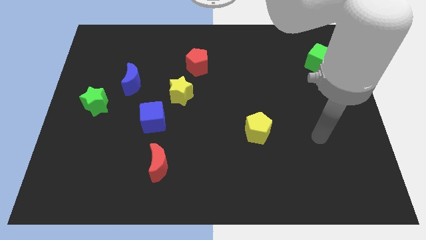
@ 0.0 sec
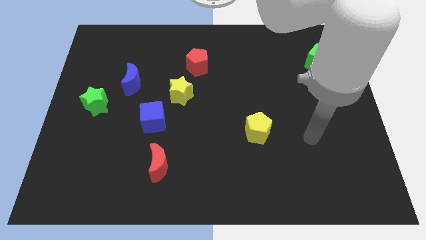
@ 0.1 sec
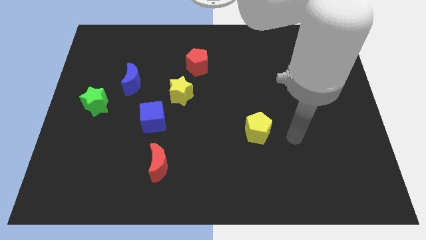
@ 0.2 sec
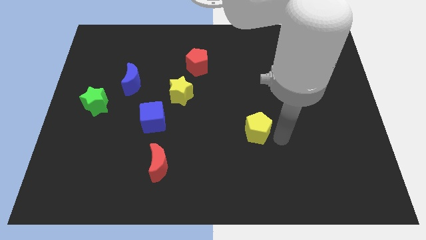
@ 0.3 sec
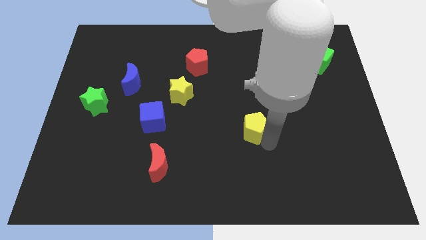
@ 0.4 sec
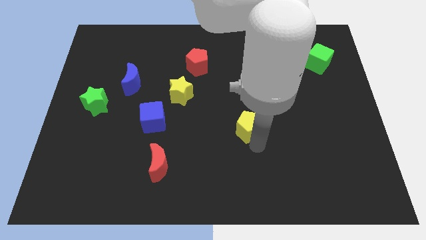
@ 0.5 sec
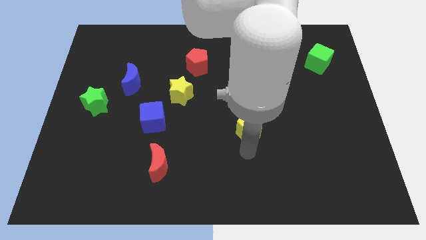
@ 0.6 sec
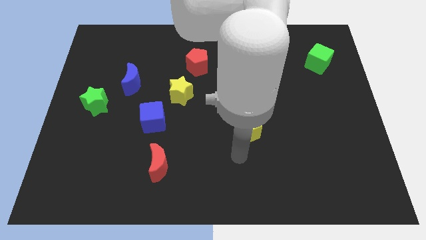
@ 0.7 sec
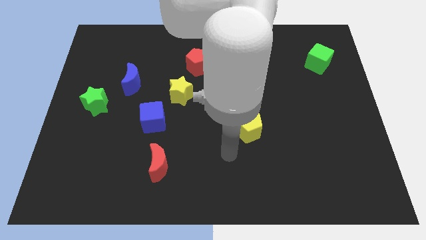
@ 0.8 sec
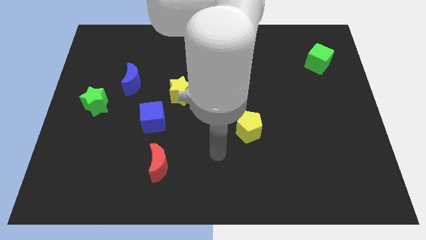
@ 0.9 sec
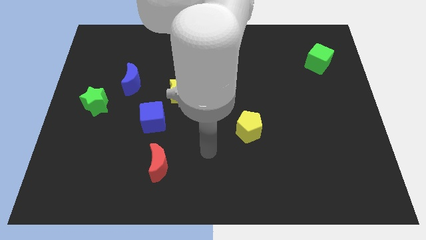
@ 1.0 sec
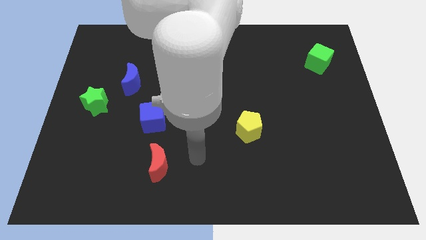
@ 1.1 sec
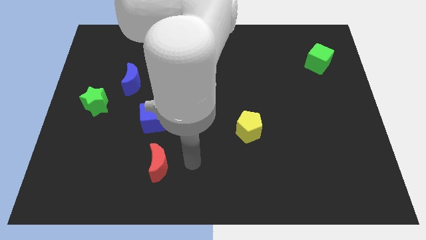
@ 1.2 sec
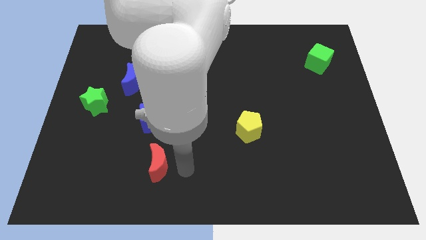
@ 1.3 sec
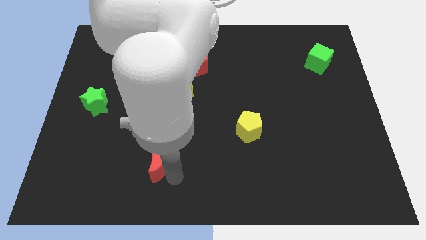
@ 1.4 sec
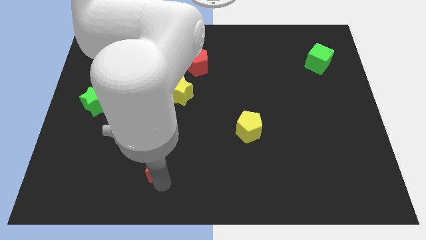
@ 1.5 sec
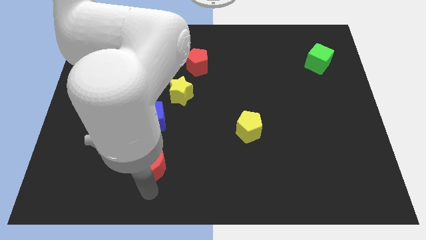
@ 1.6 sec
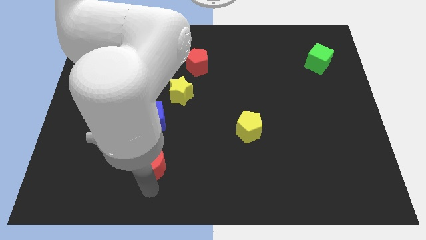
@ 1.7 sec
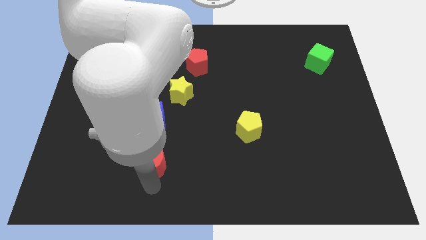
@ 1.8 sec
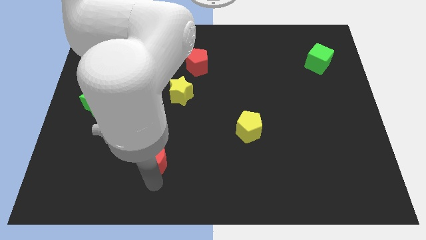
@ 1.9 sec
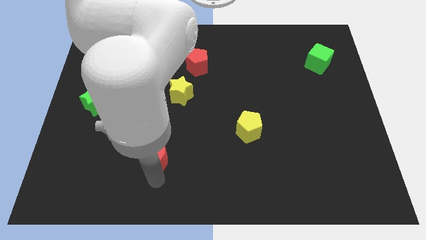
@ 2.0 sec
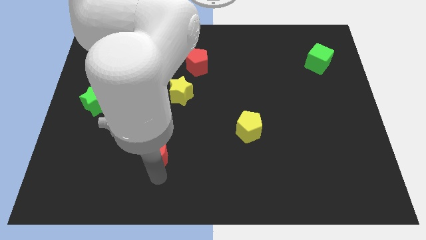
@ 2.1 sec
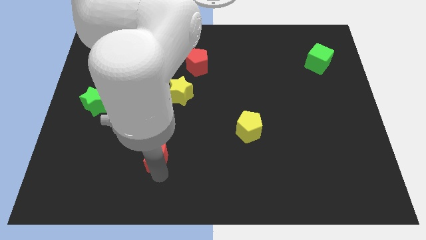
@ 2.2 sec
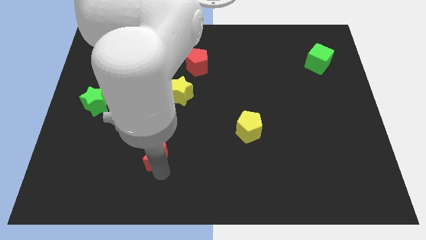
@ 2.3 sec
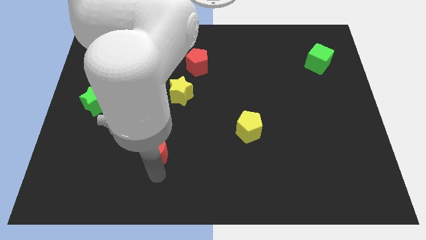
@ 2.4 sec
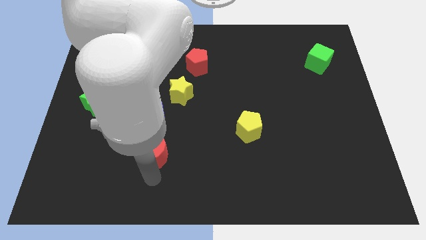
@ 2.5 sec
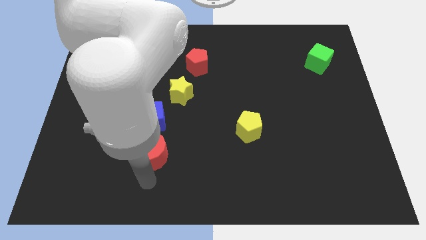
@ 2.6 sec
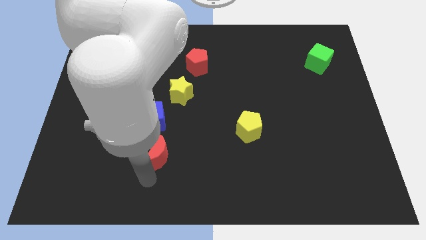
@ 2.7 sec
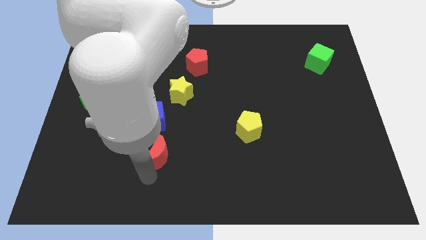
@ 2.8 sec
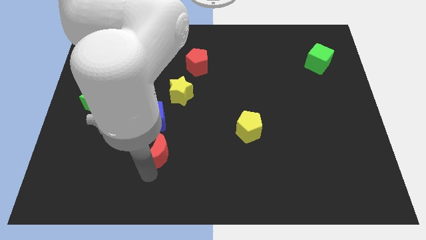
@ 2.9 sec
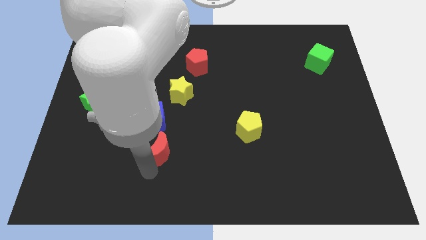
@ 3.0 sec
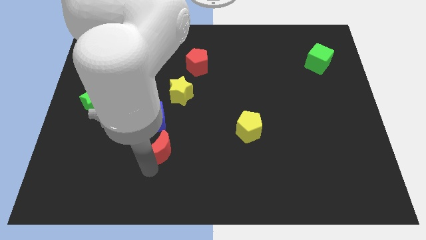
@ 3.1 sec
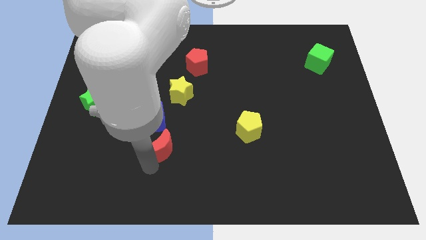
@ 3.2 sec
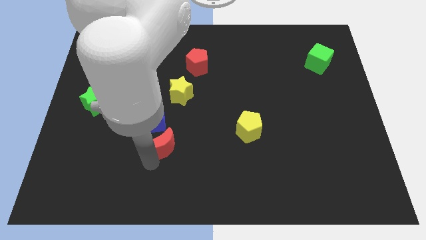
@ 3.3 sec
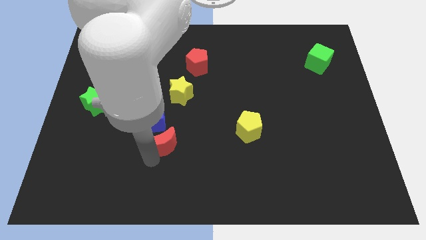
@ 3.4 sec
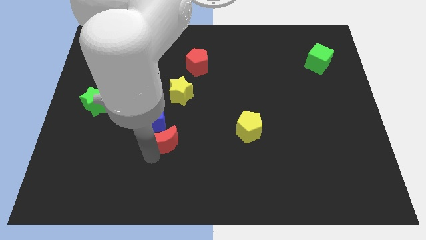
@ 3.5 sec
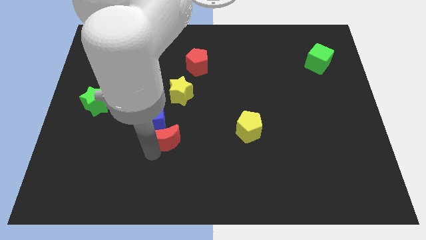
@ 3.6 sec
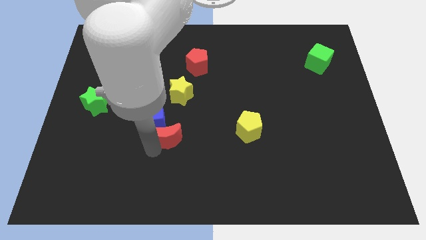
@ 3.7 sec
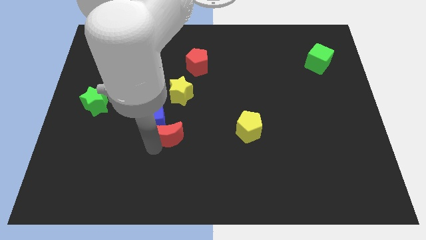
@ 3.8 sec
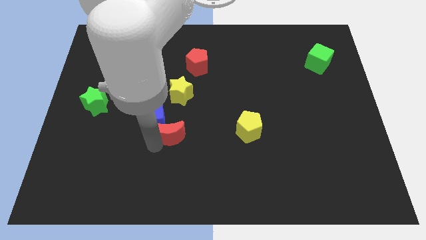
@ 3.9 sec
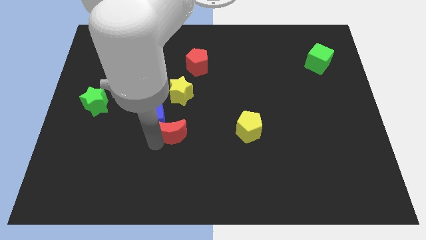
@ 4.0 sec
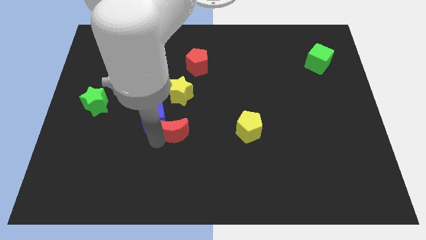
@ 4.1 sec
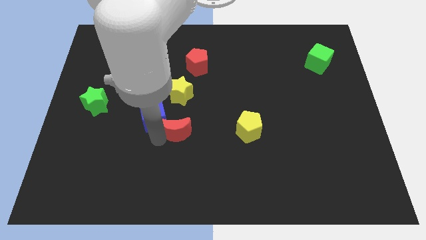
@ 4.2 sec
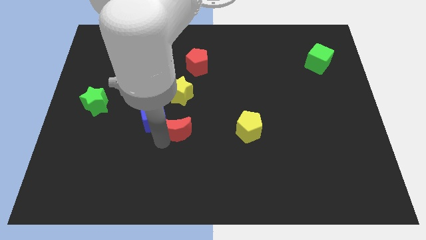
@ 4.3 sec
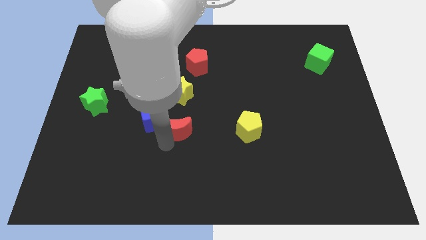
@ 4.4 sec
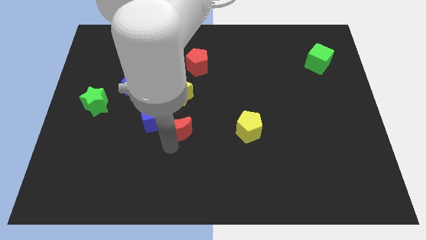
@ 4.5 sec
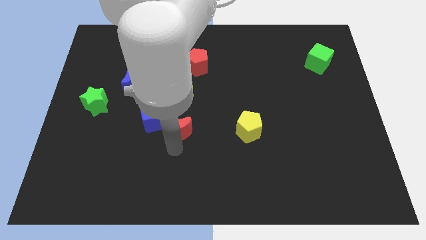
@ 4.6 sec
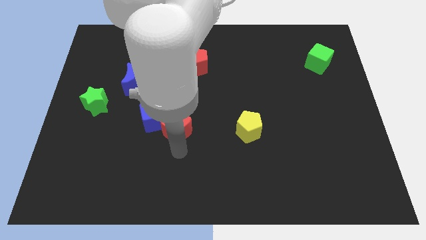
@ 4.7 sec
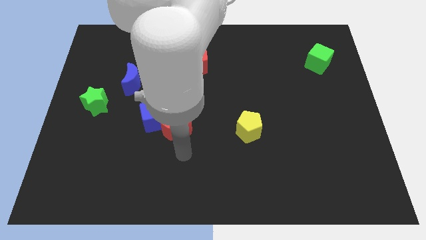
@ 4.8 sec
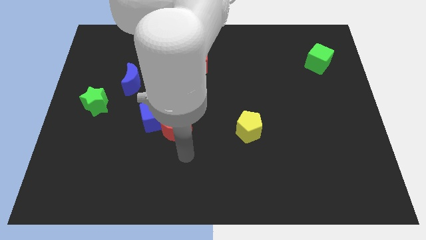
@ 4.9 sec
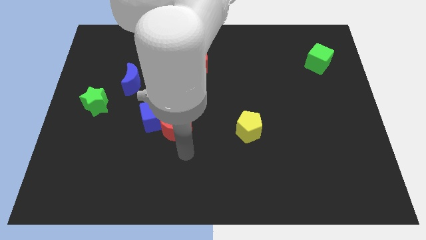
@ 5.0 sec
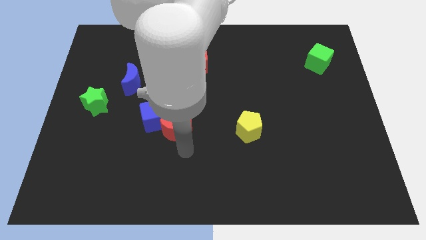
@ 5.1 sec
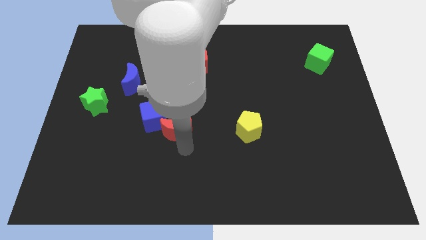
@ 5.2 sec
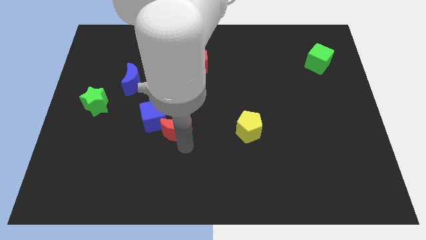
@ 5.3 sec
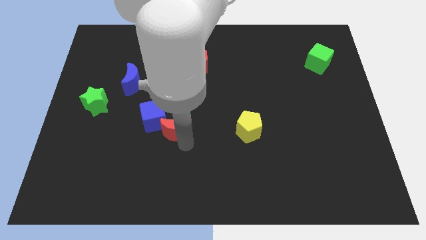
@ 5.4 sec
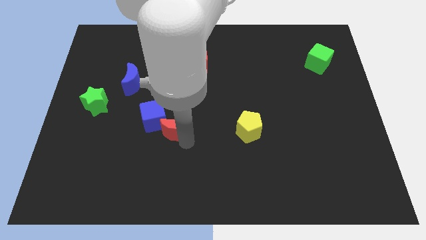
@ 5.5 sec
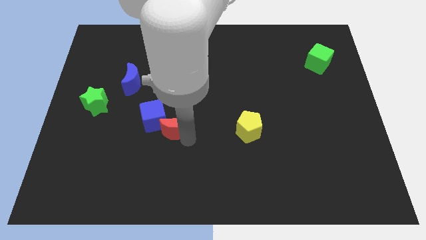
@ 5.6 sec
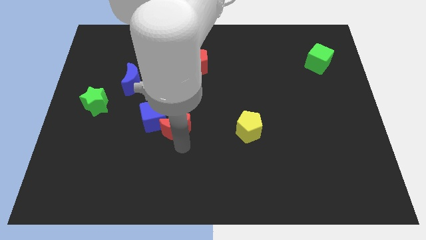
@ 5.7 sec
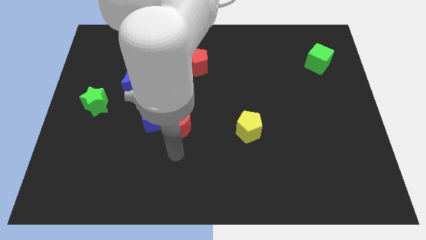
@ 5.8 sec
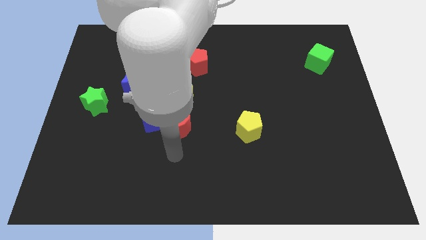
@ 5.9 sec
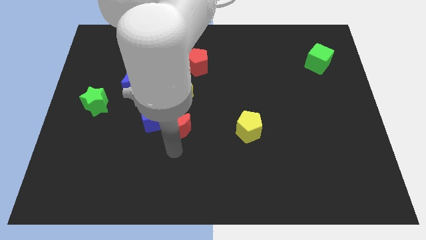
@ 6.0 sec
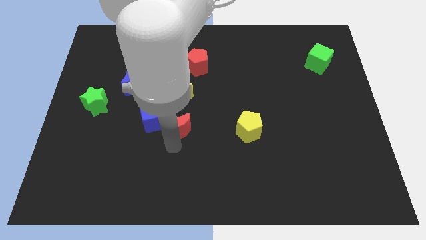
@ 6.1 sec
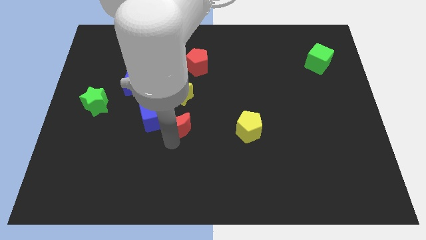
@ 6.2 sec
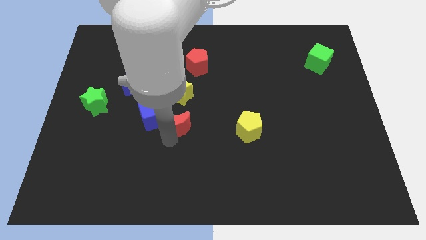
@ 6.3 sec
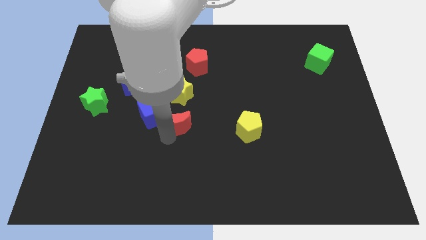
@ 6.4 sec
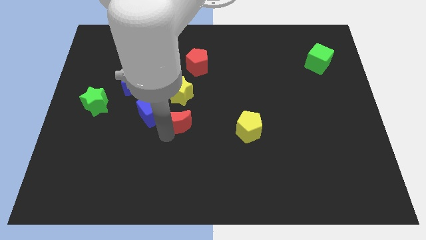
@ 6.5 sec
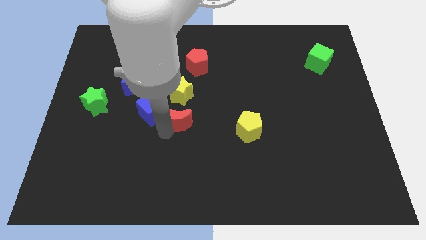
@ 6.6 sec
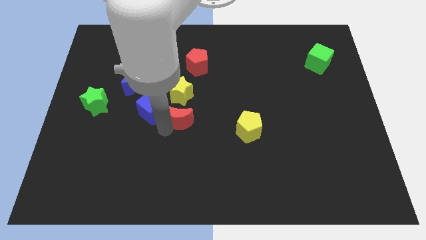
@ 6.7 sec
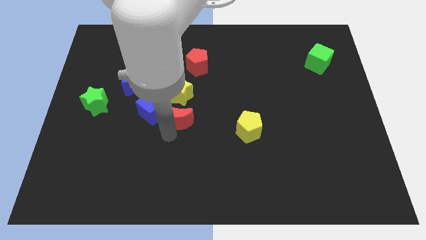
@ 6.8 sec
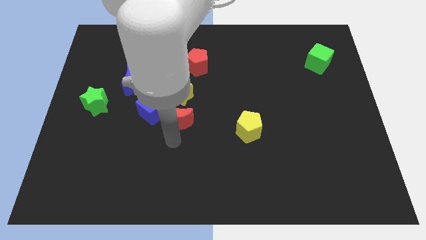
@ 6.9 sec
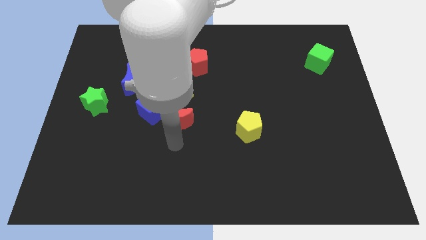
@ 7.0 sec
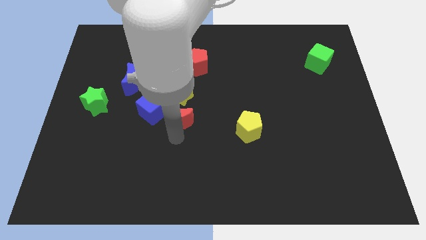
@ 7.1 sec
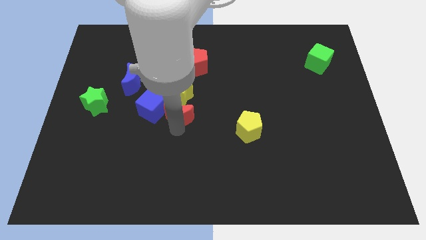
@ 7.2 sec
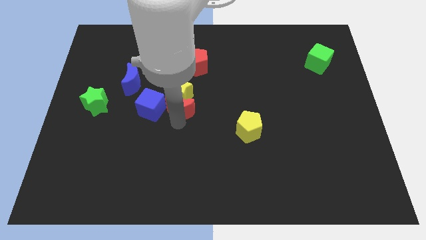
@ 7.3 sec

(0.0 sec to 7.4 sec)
push the red moon towards the yellow star
